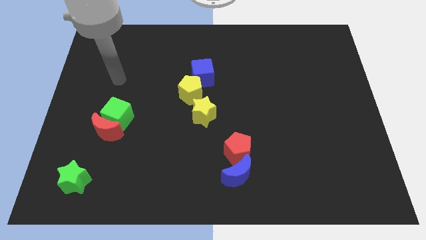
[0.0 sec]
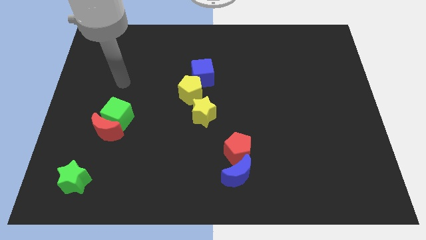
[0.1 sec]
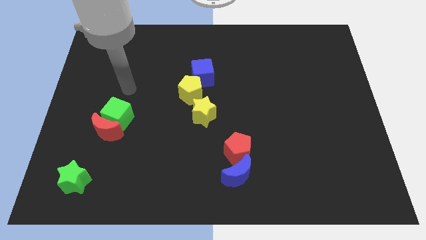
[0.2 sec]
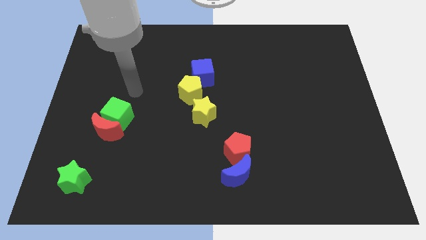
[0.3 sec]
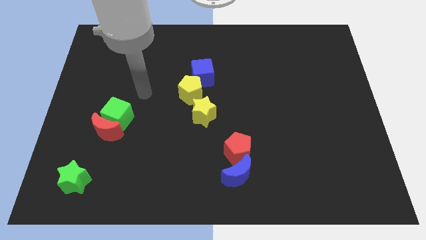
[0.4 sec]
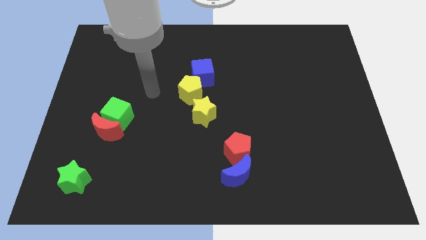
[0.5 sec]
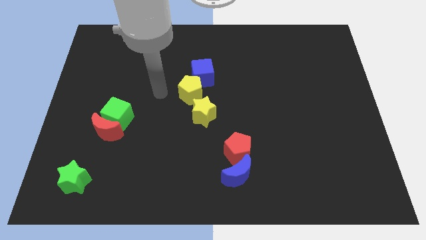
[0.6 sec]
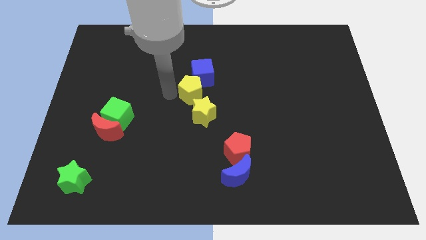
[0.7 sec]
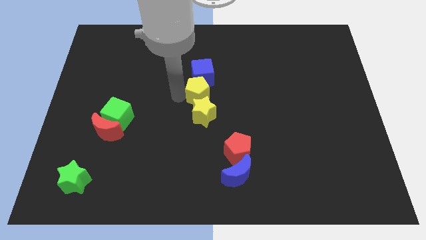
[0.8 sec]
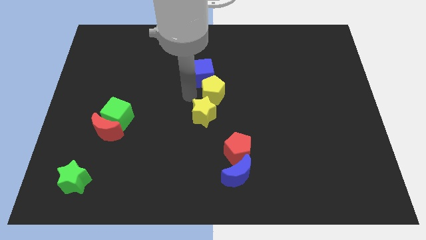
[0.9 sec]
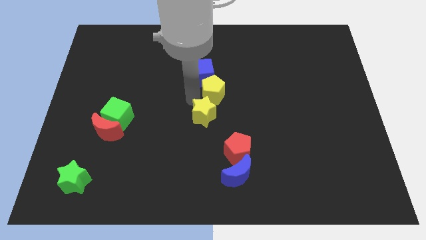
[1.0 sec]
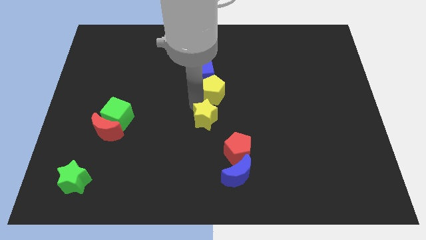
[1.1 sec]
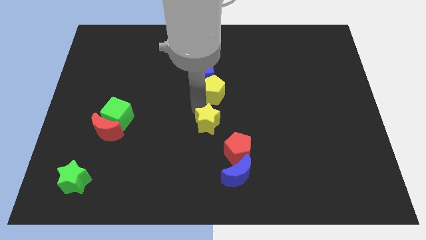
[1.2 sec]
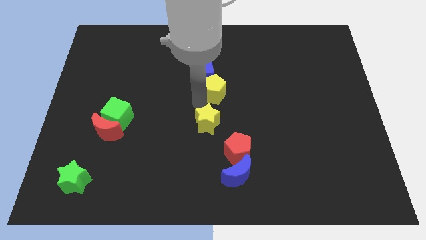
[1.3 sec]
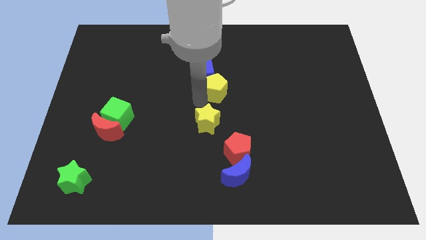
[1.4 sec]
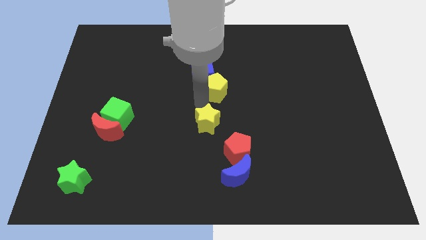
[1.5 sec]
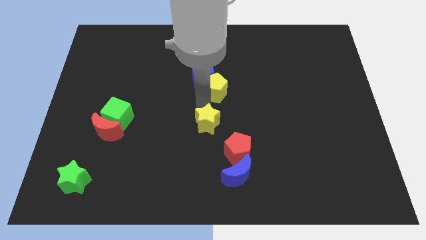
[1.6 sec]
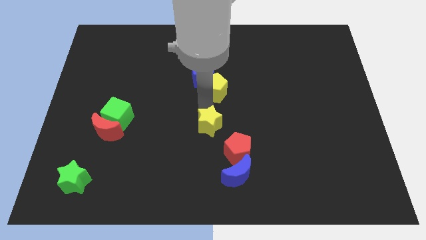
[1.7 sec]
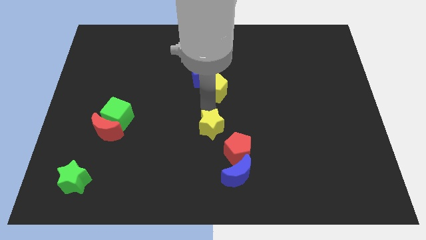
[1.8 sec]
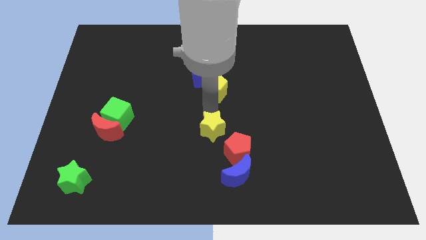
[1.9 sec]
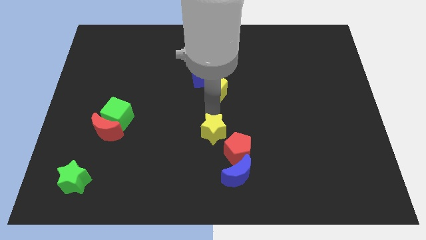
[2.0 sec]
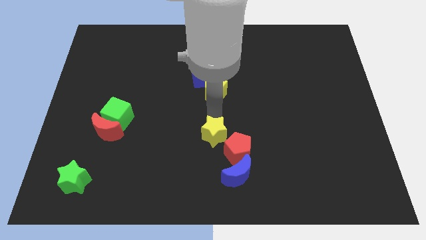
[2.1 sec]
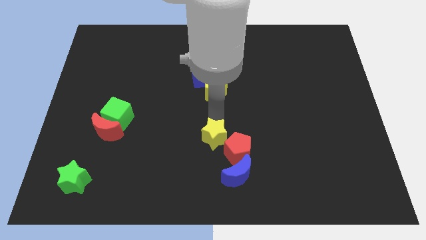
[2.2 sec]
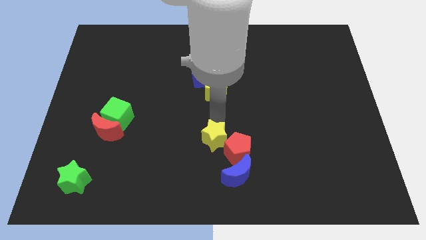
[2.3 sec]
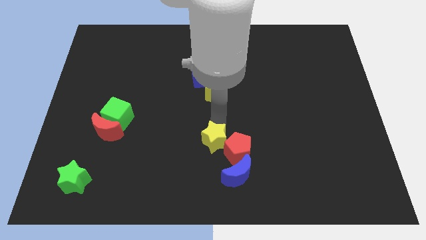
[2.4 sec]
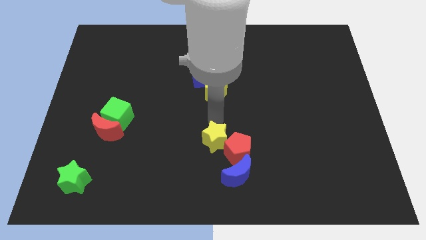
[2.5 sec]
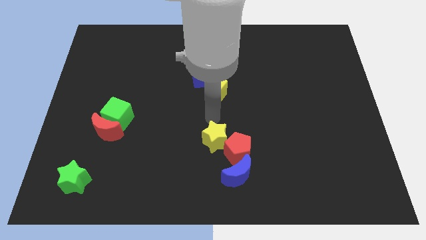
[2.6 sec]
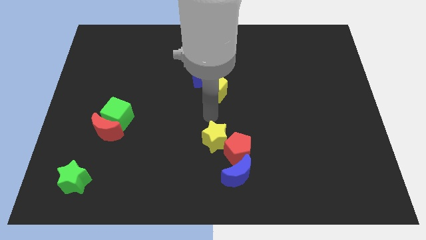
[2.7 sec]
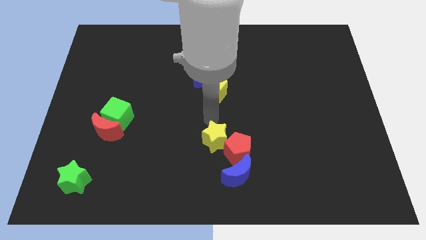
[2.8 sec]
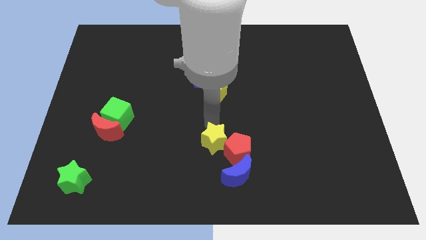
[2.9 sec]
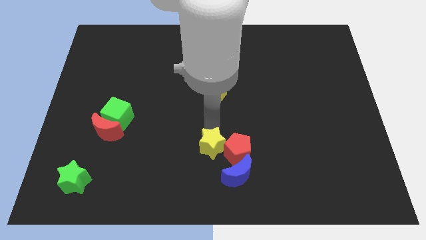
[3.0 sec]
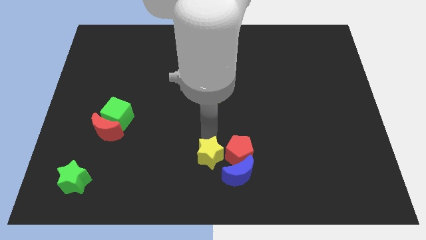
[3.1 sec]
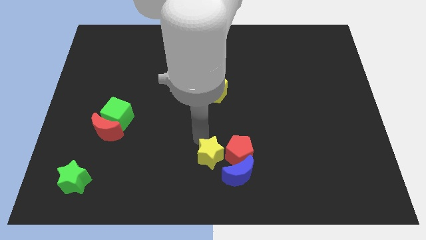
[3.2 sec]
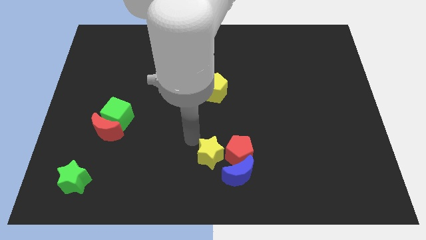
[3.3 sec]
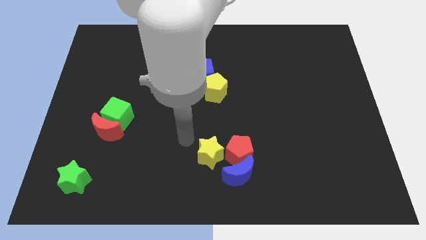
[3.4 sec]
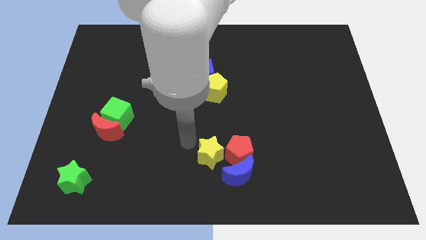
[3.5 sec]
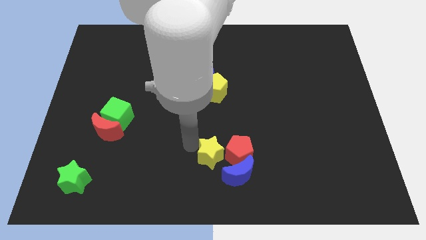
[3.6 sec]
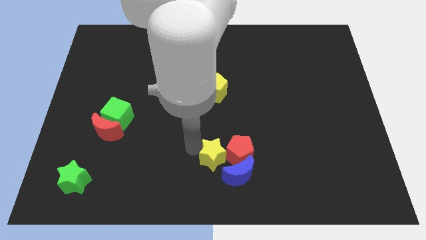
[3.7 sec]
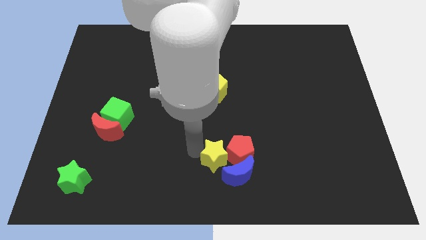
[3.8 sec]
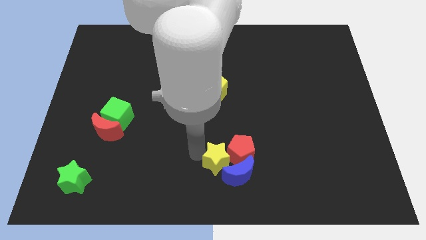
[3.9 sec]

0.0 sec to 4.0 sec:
move the yellow star to the blue moon

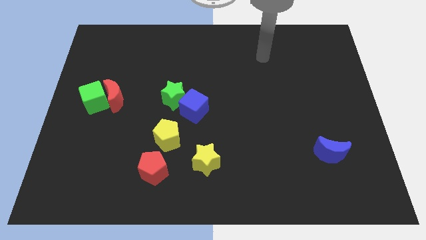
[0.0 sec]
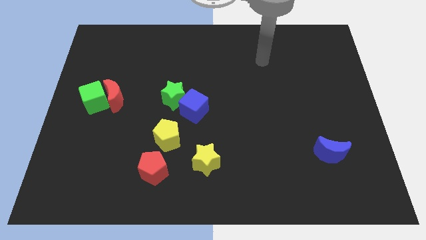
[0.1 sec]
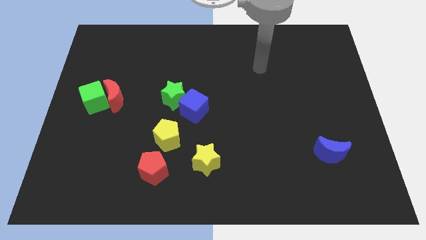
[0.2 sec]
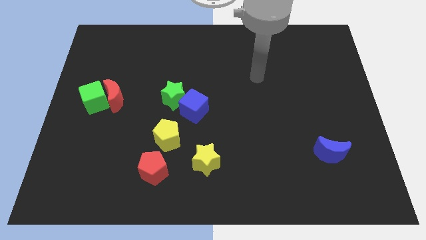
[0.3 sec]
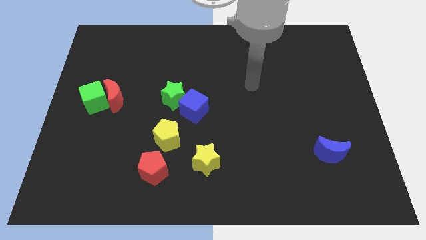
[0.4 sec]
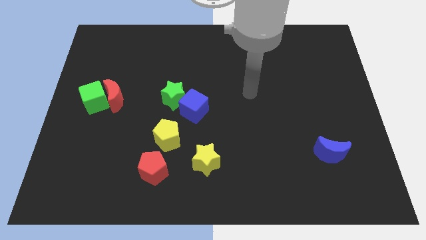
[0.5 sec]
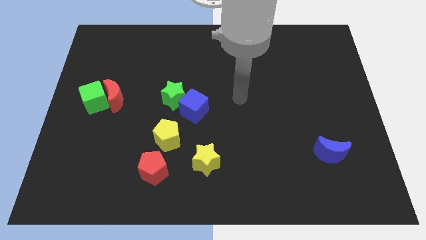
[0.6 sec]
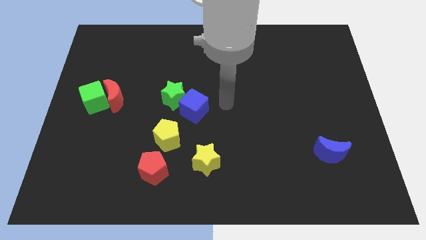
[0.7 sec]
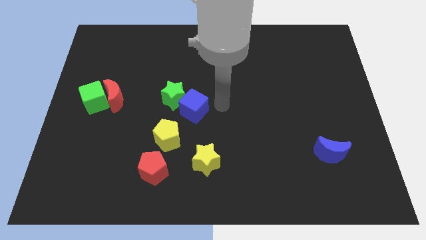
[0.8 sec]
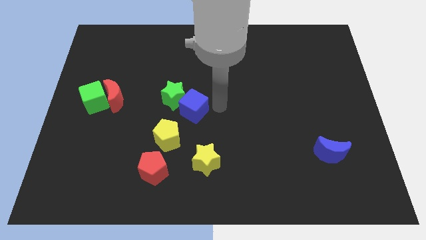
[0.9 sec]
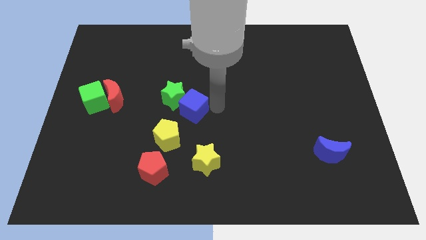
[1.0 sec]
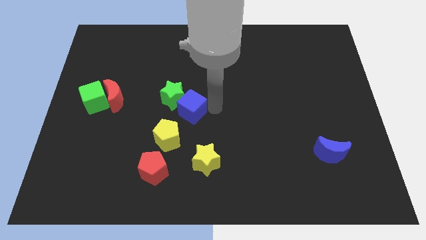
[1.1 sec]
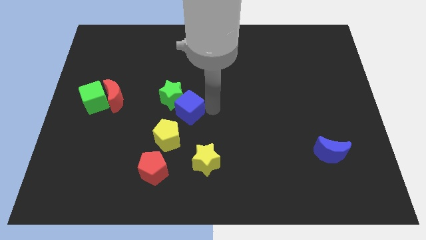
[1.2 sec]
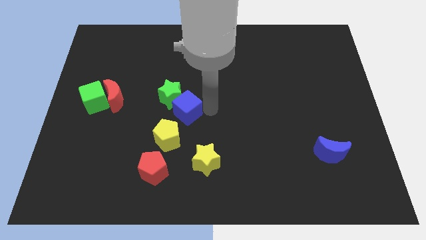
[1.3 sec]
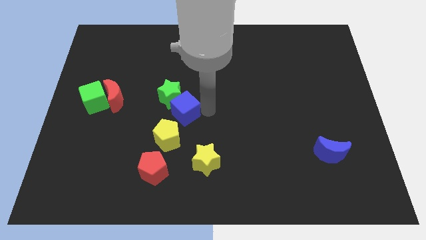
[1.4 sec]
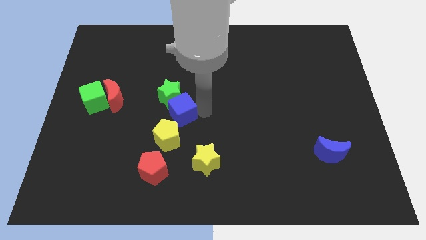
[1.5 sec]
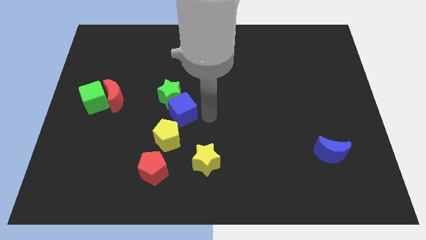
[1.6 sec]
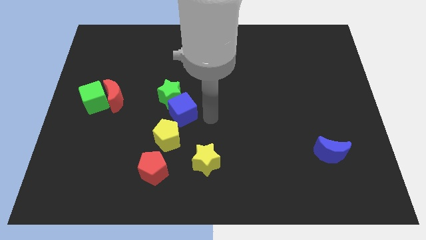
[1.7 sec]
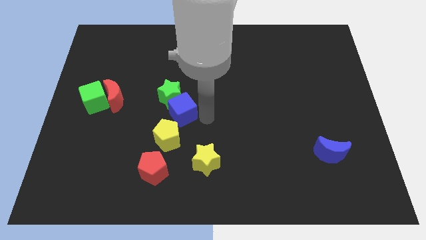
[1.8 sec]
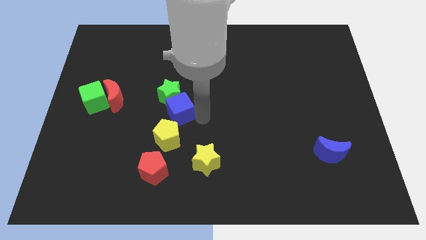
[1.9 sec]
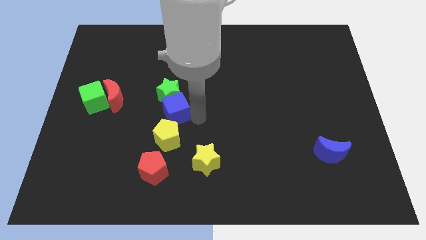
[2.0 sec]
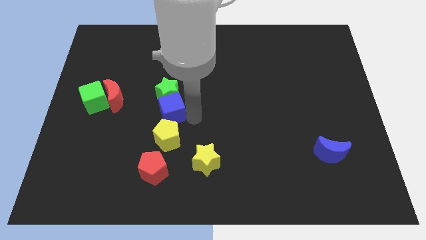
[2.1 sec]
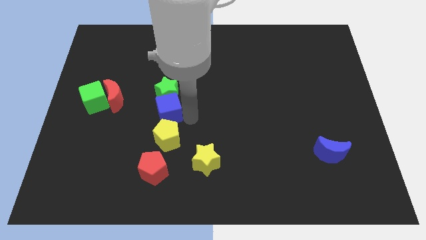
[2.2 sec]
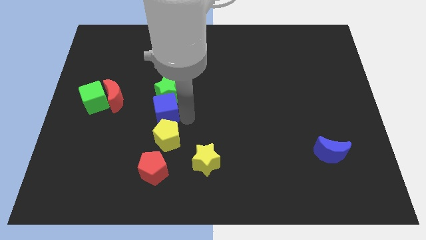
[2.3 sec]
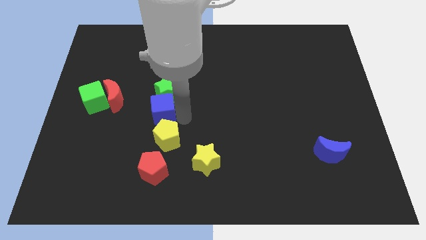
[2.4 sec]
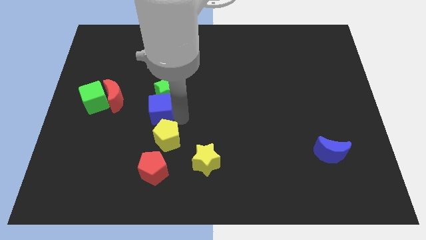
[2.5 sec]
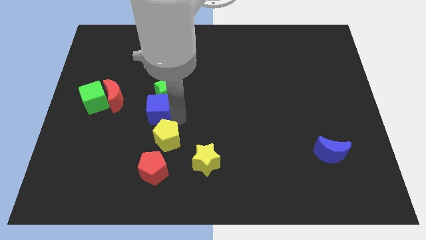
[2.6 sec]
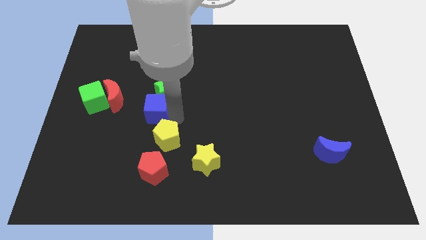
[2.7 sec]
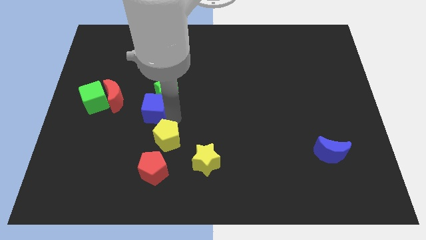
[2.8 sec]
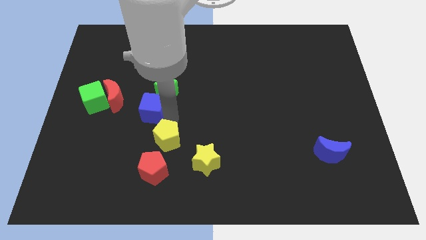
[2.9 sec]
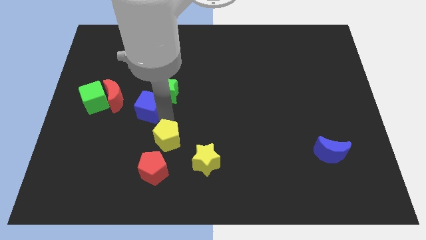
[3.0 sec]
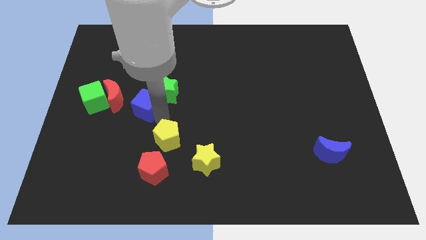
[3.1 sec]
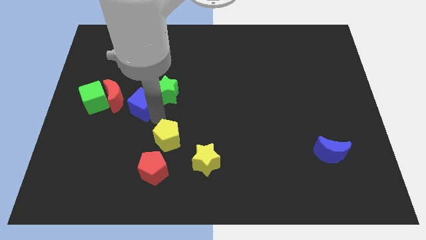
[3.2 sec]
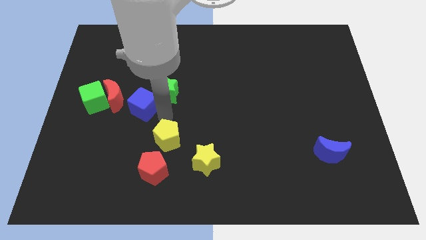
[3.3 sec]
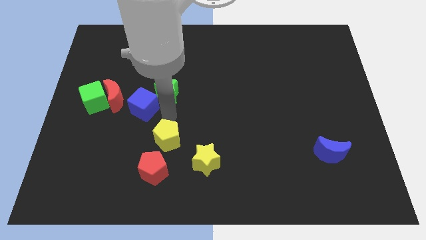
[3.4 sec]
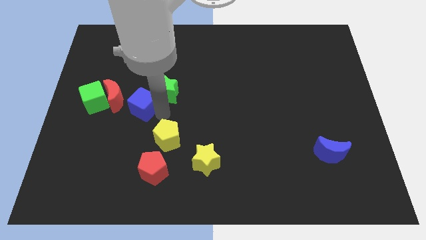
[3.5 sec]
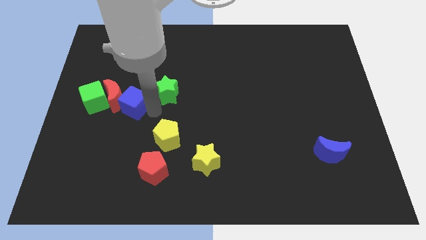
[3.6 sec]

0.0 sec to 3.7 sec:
push the blue cube next to the red moon

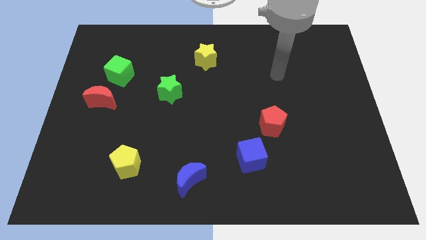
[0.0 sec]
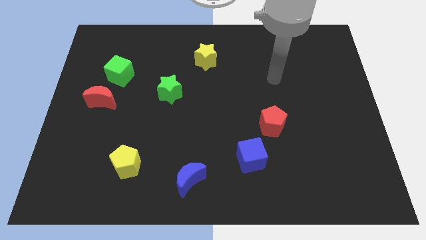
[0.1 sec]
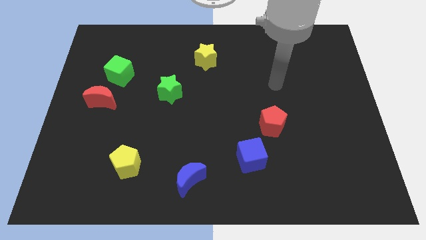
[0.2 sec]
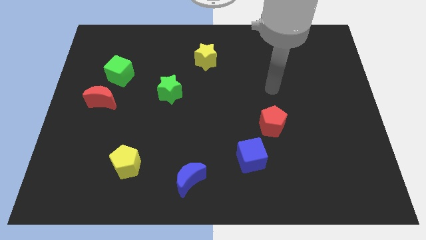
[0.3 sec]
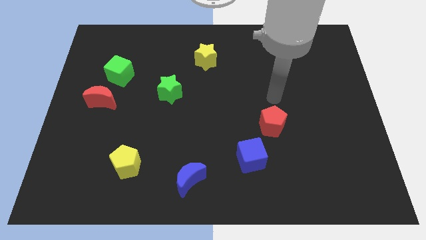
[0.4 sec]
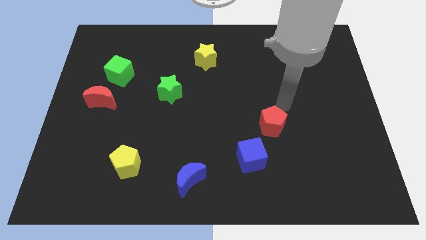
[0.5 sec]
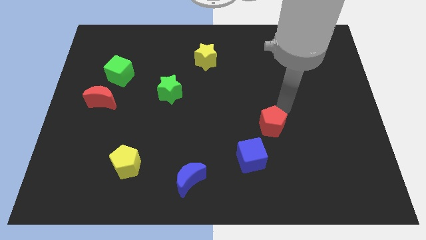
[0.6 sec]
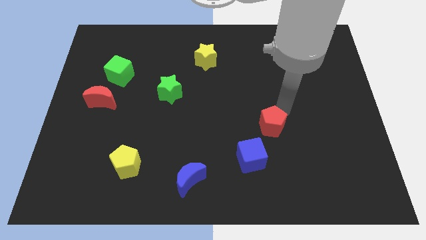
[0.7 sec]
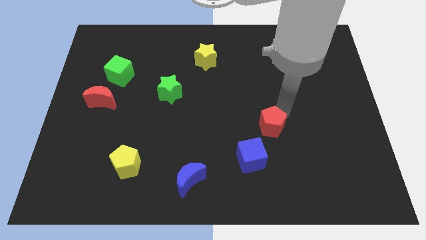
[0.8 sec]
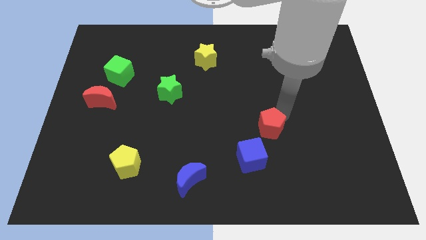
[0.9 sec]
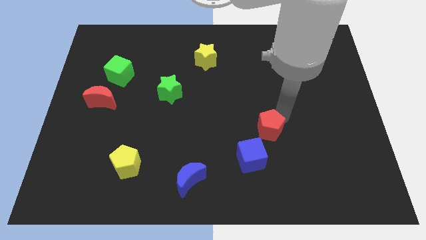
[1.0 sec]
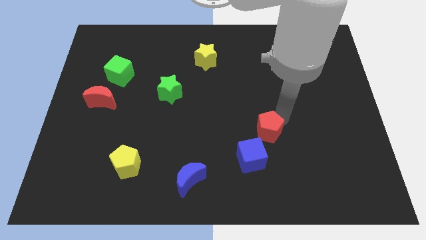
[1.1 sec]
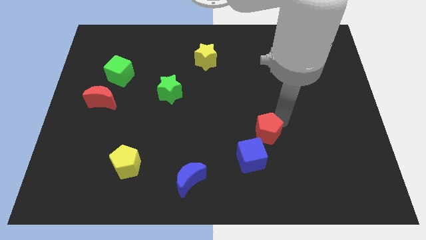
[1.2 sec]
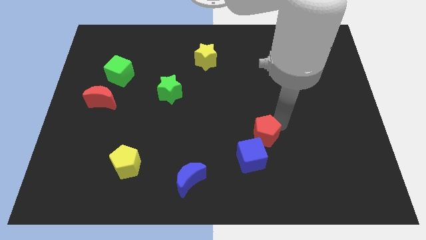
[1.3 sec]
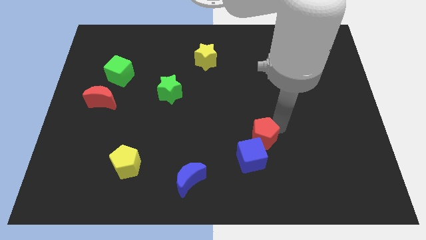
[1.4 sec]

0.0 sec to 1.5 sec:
put the red pentagon next to the blue cube
